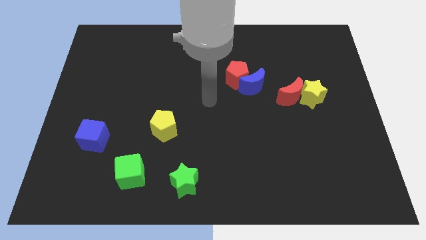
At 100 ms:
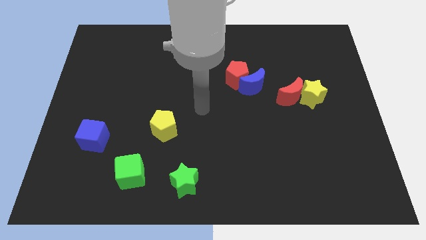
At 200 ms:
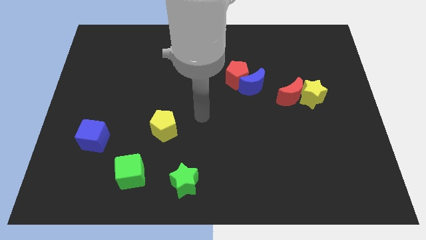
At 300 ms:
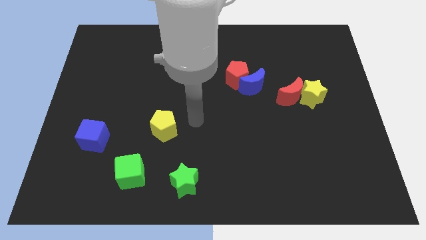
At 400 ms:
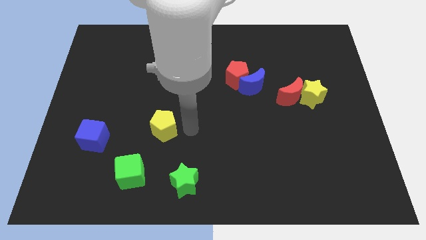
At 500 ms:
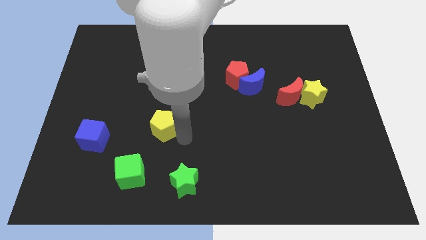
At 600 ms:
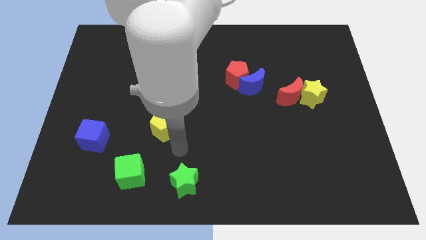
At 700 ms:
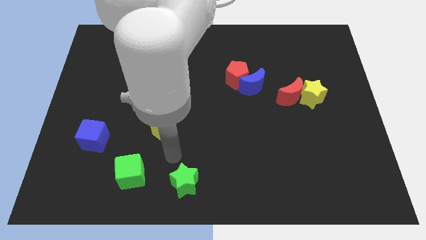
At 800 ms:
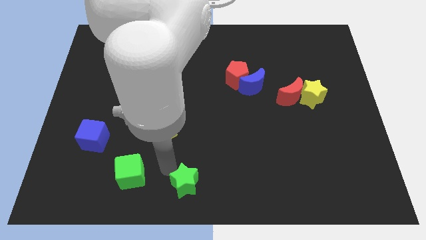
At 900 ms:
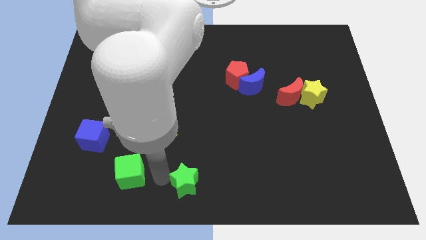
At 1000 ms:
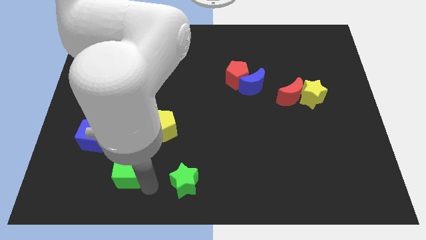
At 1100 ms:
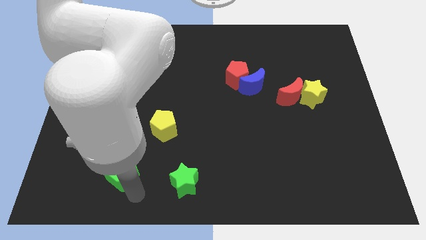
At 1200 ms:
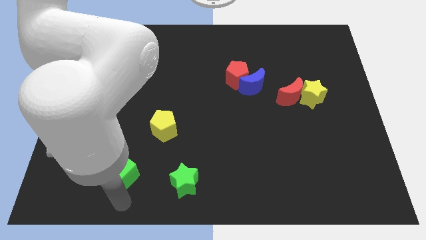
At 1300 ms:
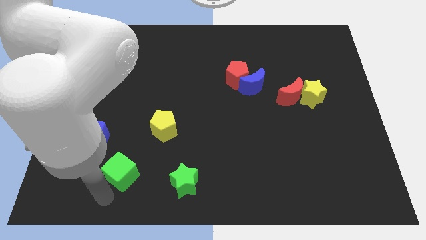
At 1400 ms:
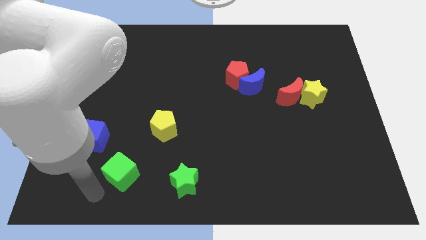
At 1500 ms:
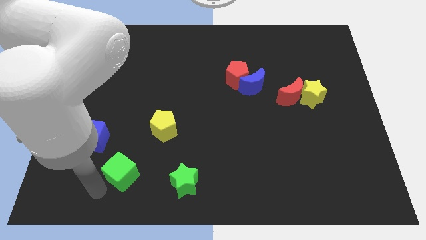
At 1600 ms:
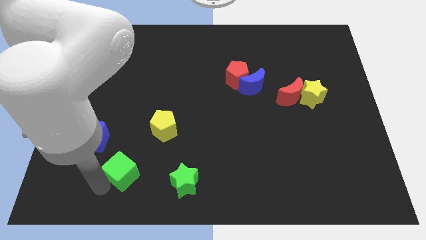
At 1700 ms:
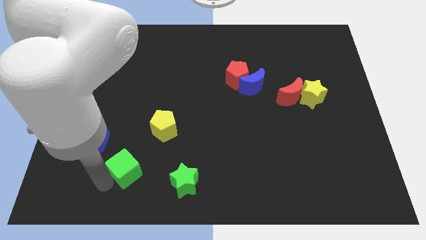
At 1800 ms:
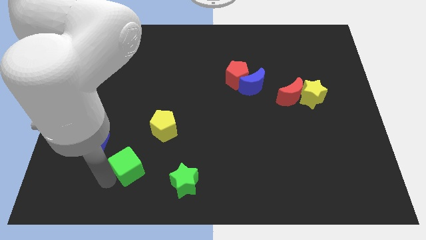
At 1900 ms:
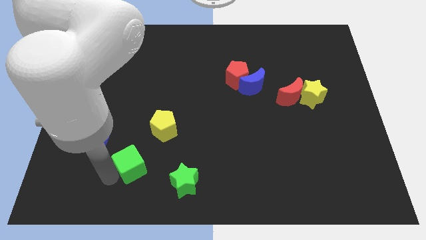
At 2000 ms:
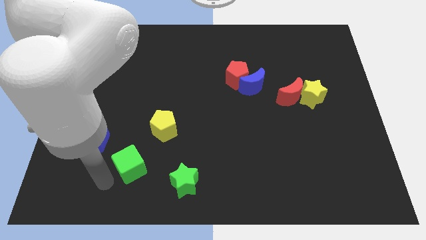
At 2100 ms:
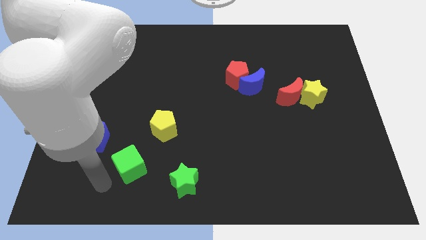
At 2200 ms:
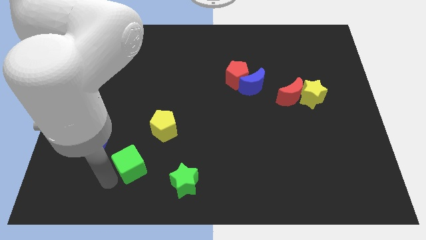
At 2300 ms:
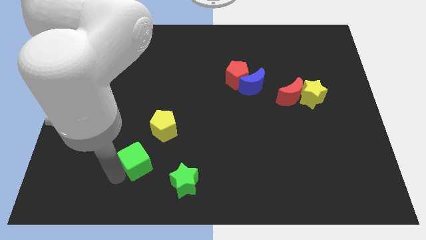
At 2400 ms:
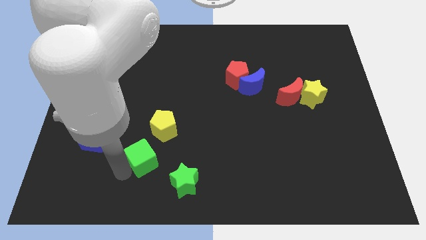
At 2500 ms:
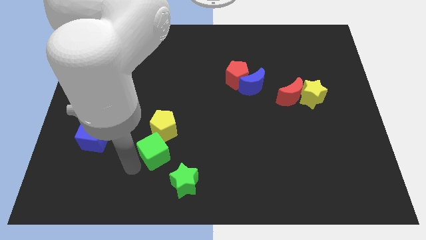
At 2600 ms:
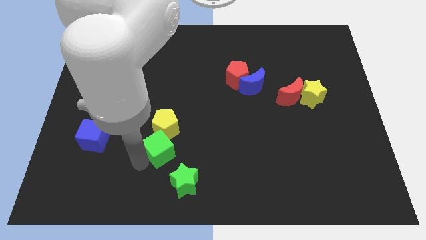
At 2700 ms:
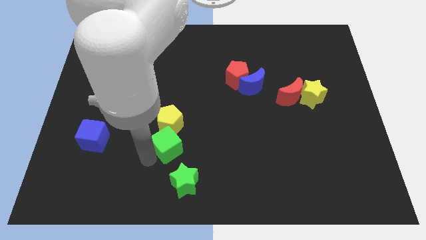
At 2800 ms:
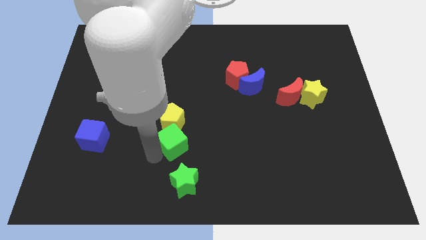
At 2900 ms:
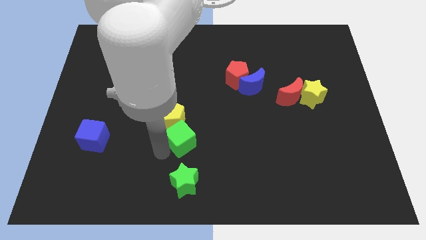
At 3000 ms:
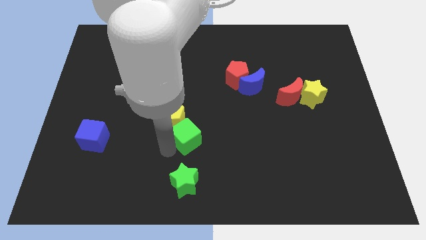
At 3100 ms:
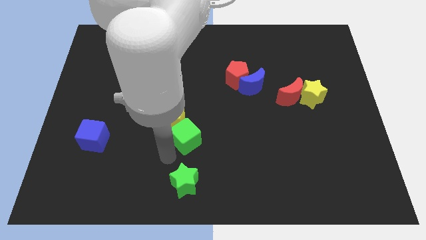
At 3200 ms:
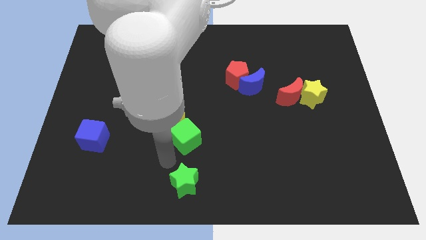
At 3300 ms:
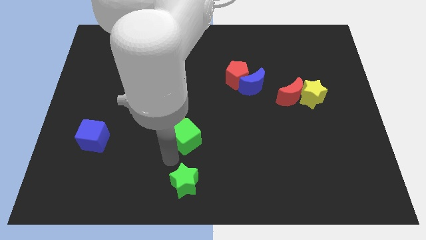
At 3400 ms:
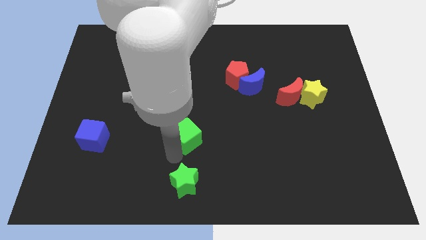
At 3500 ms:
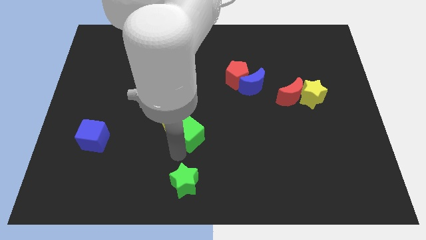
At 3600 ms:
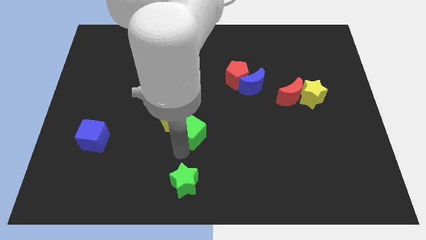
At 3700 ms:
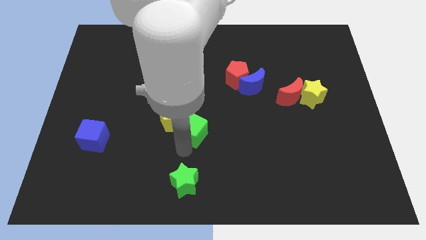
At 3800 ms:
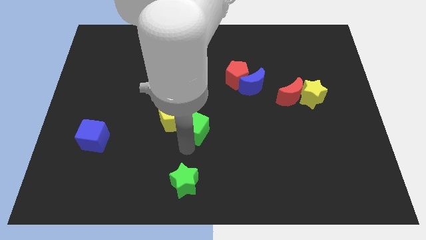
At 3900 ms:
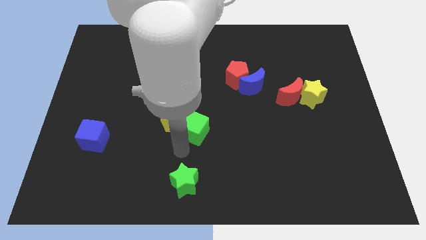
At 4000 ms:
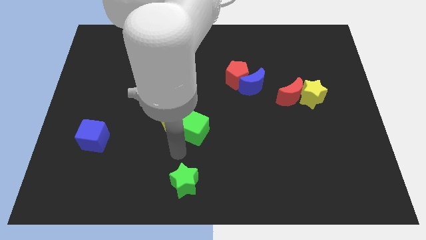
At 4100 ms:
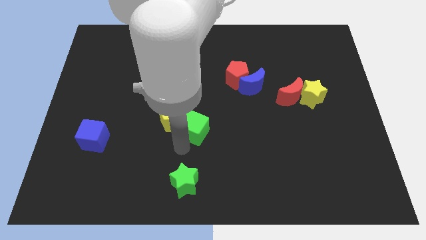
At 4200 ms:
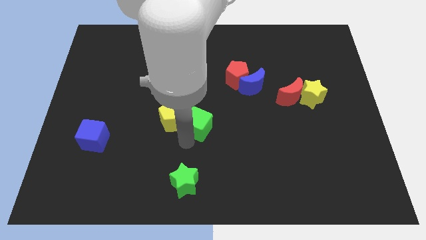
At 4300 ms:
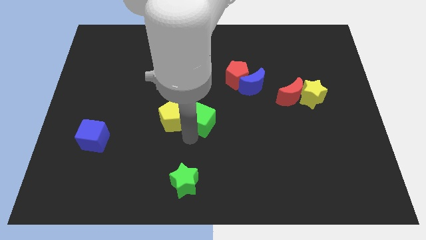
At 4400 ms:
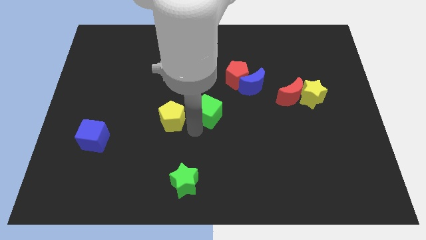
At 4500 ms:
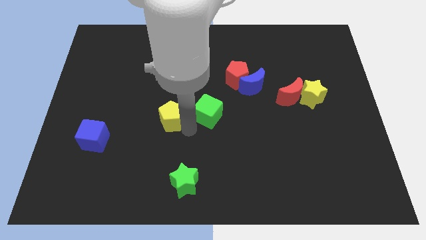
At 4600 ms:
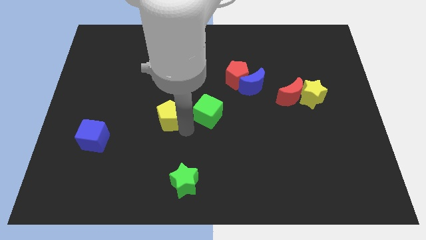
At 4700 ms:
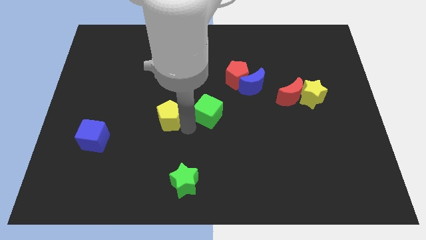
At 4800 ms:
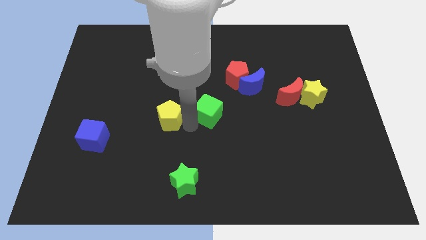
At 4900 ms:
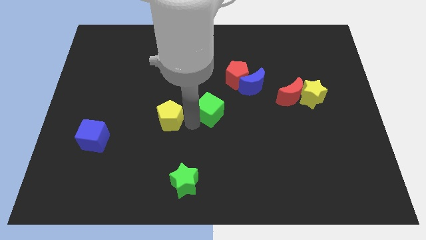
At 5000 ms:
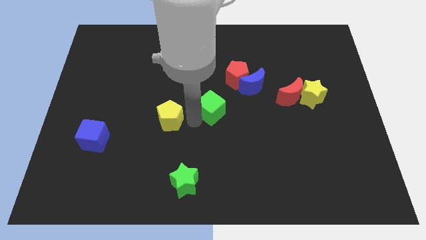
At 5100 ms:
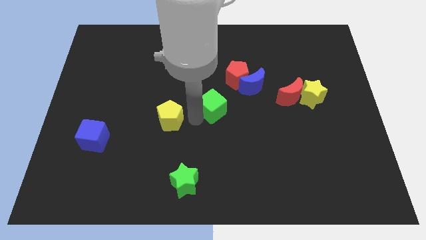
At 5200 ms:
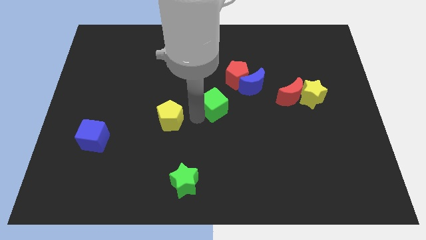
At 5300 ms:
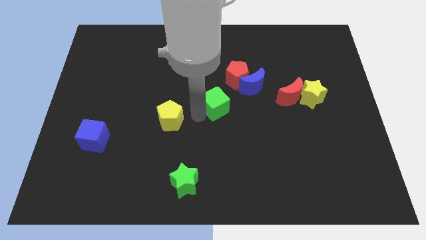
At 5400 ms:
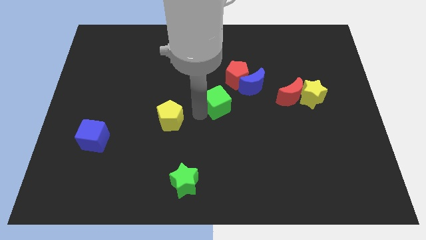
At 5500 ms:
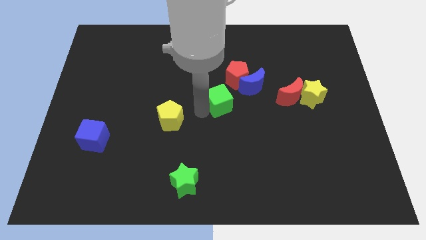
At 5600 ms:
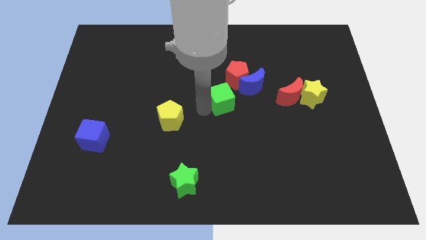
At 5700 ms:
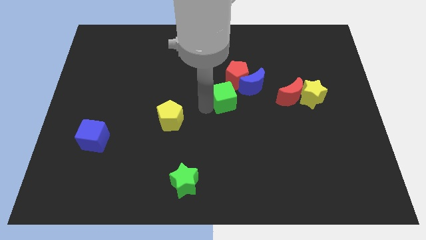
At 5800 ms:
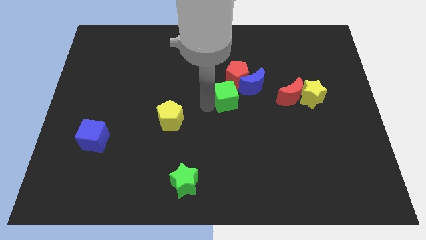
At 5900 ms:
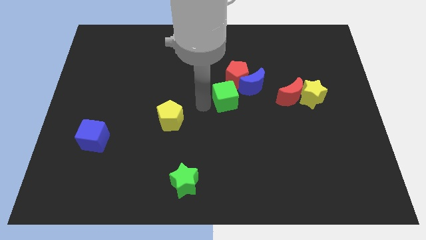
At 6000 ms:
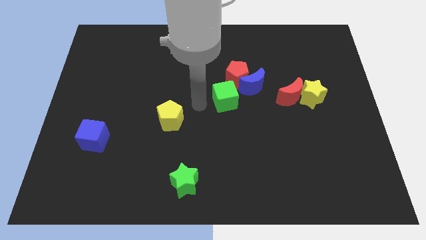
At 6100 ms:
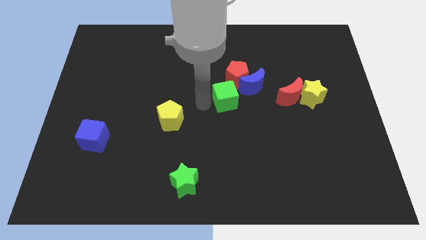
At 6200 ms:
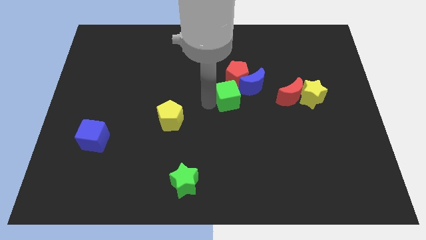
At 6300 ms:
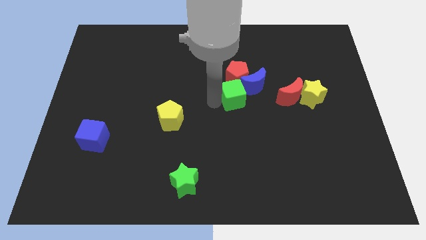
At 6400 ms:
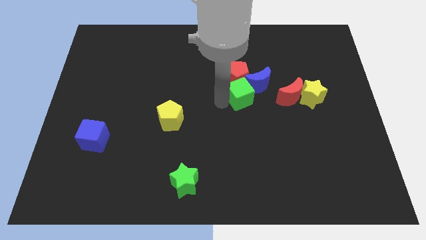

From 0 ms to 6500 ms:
move the green cube next to the red pentagon

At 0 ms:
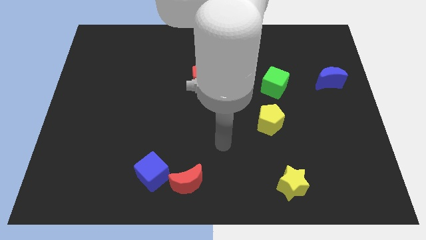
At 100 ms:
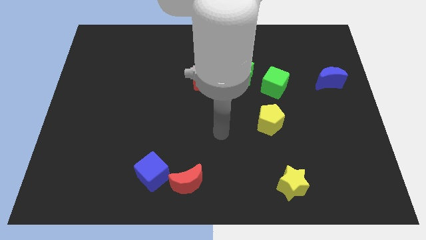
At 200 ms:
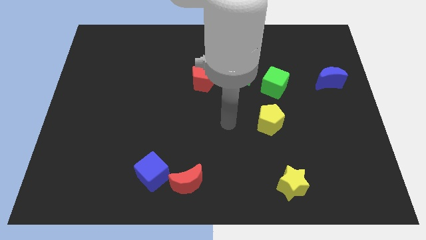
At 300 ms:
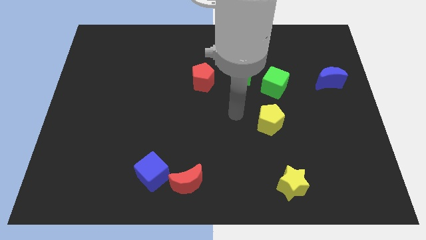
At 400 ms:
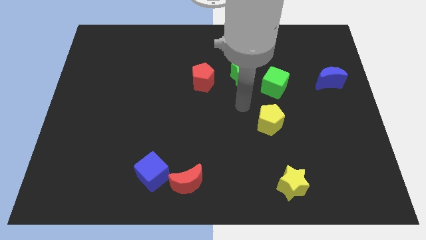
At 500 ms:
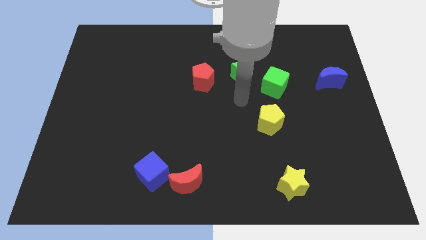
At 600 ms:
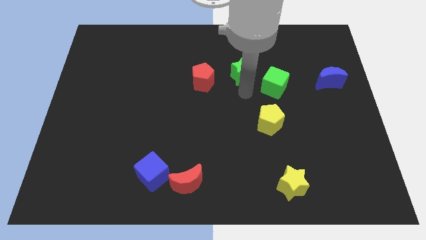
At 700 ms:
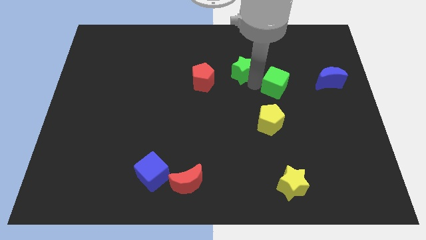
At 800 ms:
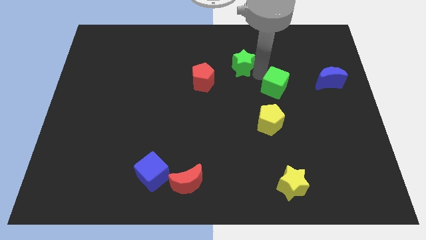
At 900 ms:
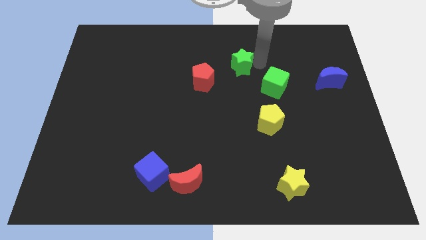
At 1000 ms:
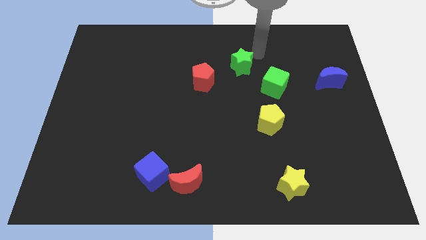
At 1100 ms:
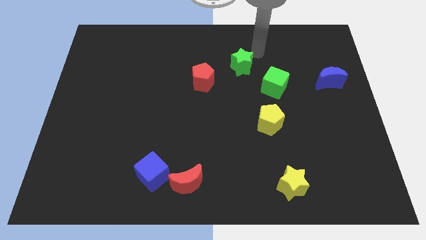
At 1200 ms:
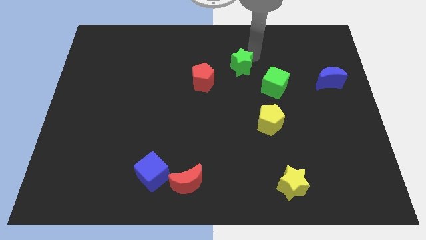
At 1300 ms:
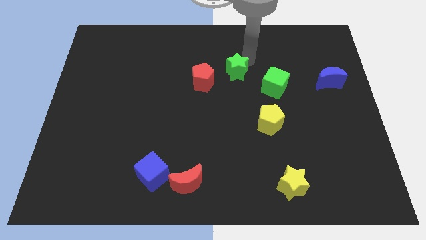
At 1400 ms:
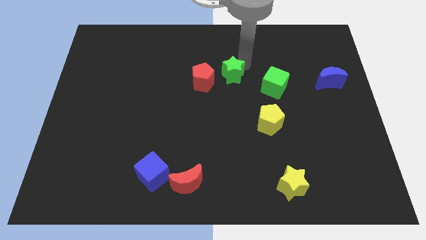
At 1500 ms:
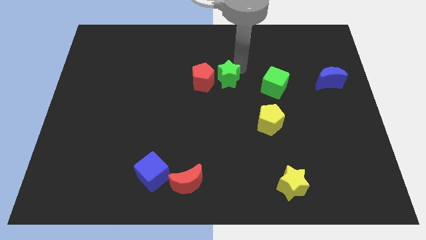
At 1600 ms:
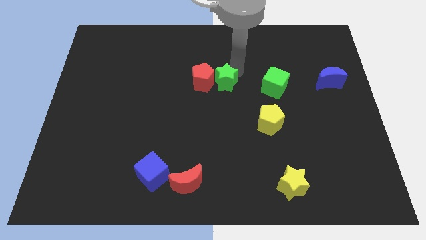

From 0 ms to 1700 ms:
slide the green star close to the red pentagon
